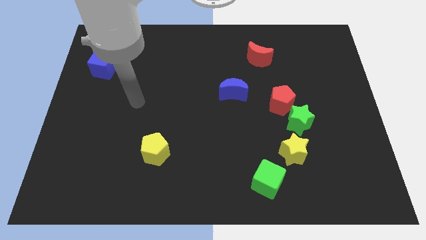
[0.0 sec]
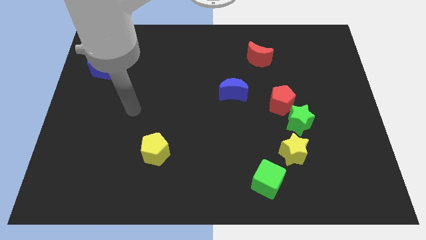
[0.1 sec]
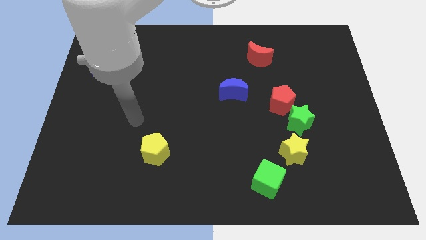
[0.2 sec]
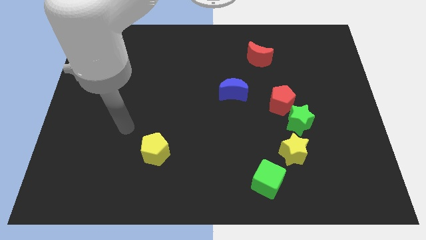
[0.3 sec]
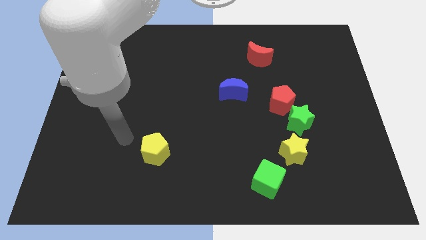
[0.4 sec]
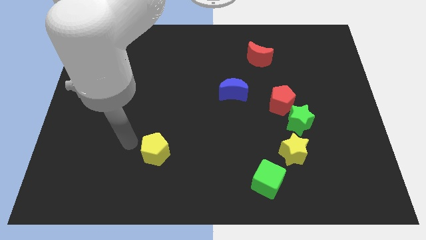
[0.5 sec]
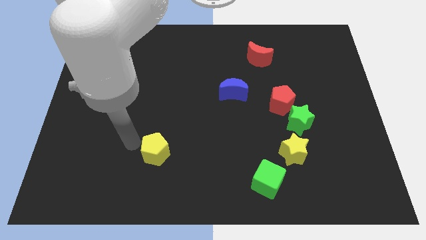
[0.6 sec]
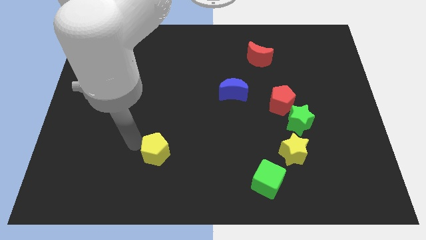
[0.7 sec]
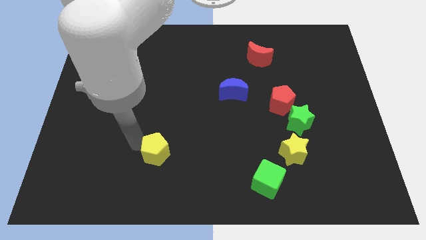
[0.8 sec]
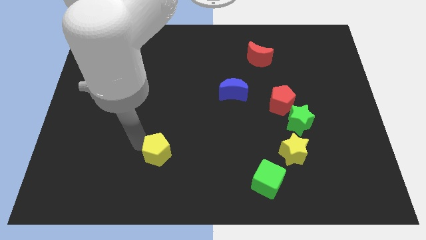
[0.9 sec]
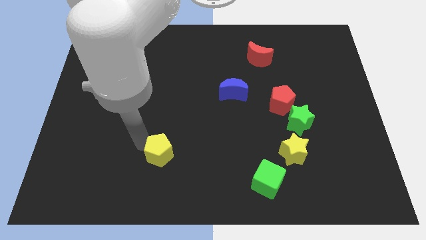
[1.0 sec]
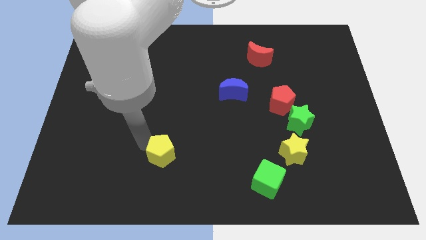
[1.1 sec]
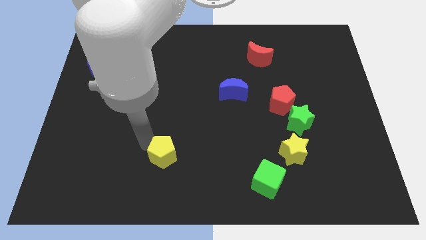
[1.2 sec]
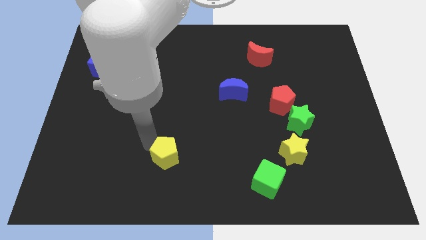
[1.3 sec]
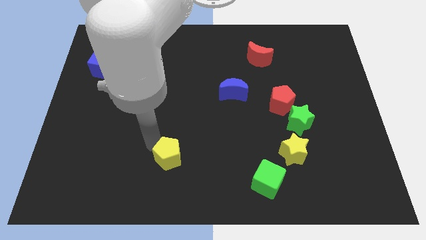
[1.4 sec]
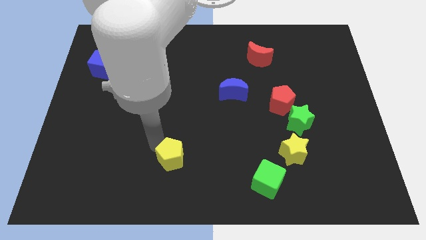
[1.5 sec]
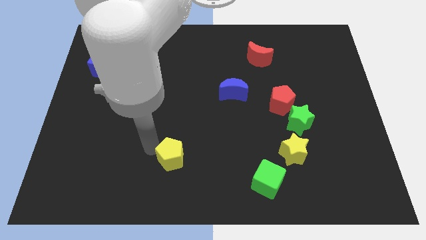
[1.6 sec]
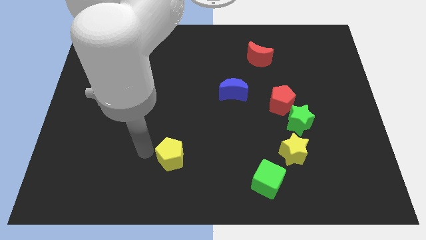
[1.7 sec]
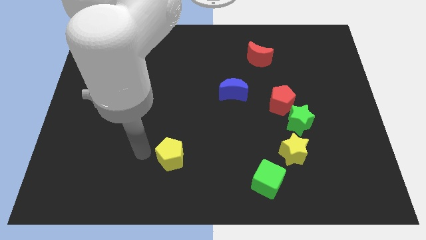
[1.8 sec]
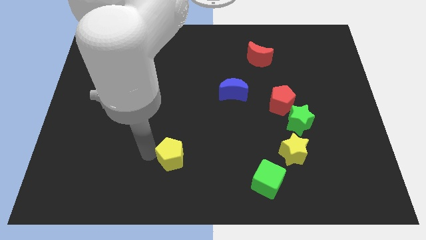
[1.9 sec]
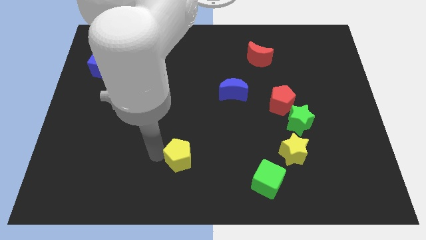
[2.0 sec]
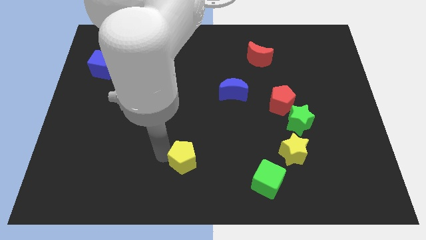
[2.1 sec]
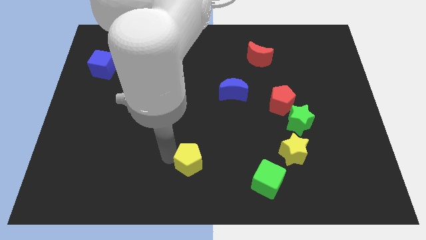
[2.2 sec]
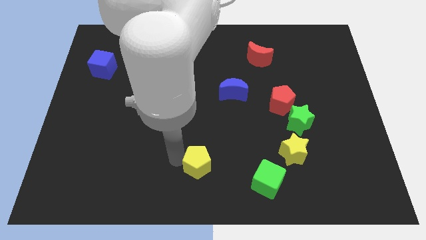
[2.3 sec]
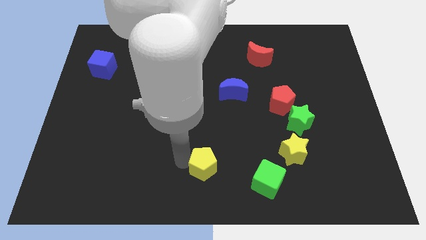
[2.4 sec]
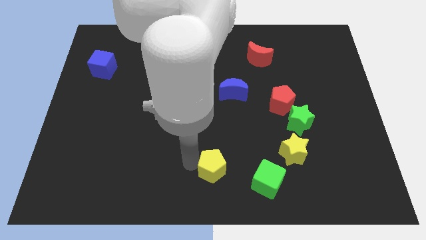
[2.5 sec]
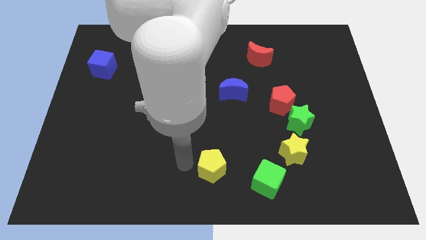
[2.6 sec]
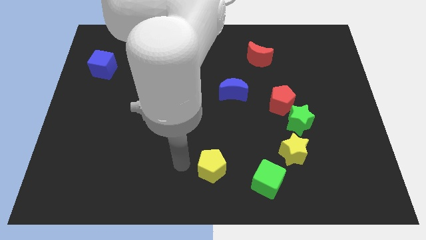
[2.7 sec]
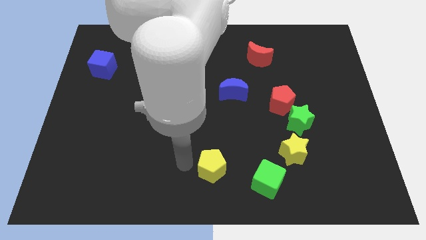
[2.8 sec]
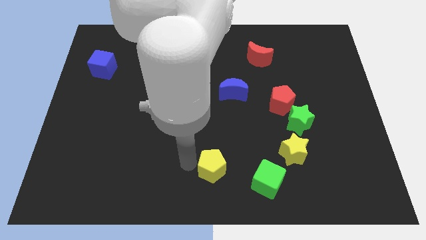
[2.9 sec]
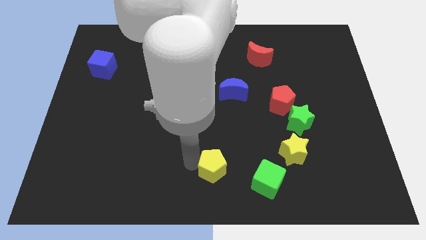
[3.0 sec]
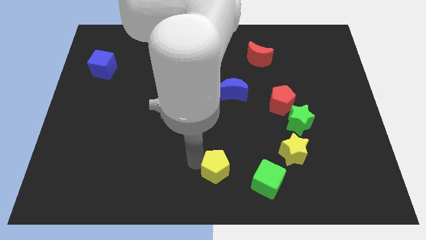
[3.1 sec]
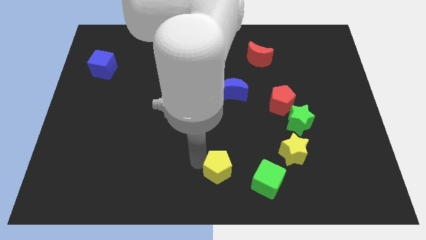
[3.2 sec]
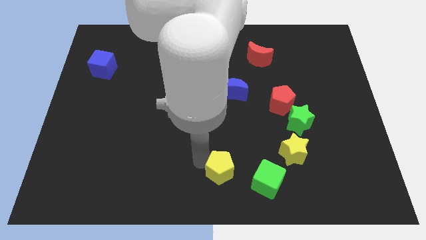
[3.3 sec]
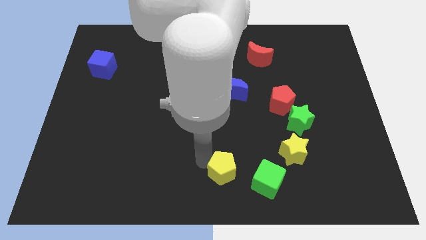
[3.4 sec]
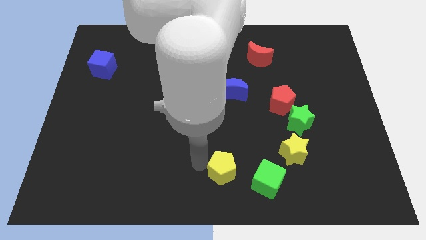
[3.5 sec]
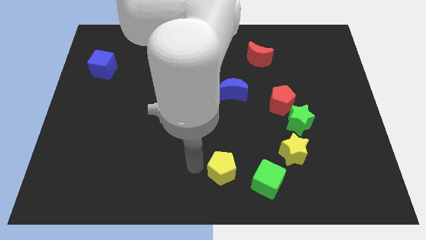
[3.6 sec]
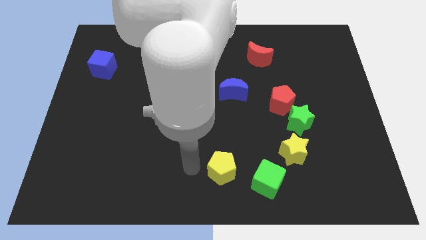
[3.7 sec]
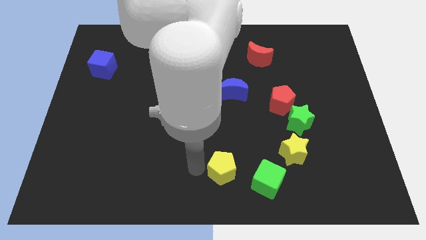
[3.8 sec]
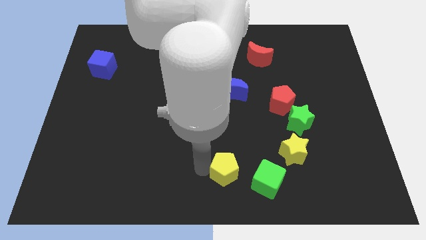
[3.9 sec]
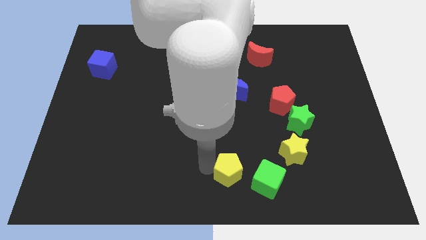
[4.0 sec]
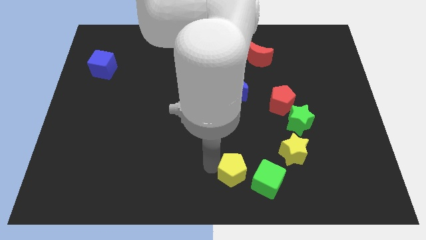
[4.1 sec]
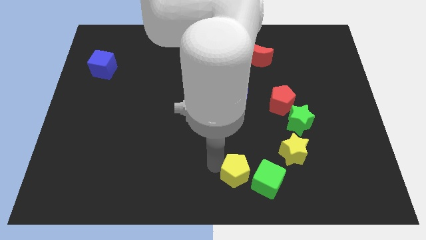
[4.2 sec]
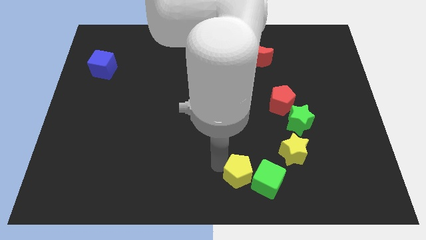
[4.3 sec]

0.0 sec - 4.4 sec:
move the yellow pentagon towards the green cube

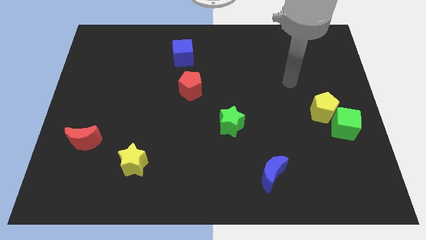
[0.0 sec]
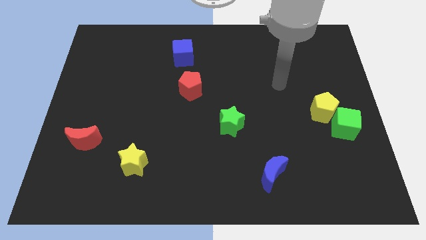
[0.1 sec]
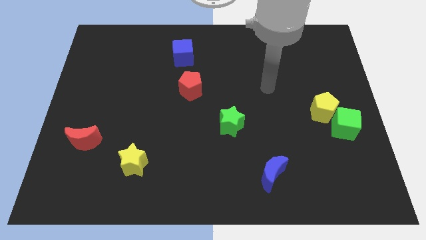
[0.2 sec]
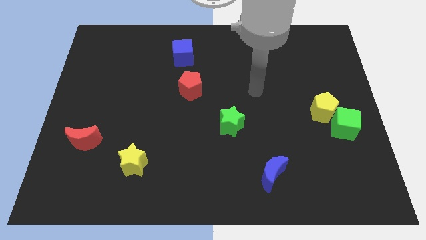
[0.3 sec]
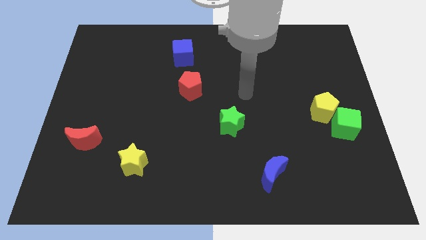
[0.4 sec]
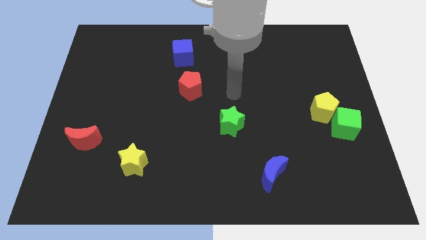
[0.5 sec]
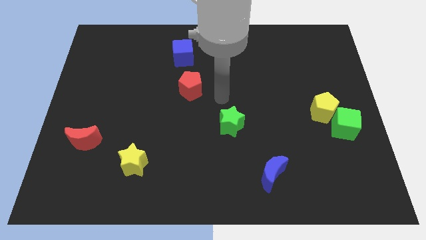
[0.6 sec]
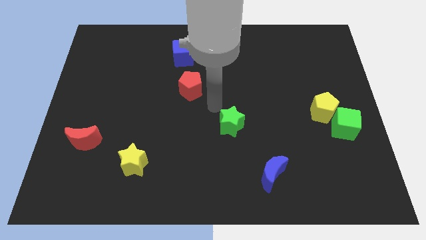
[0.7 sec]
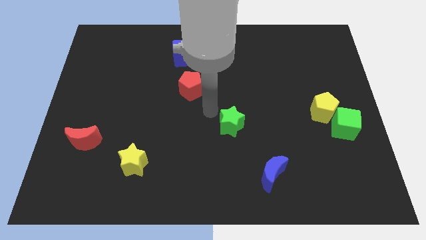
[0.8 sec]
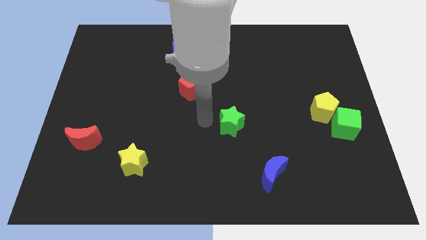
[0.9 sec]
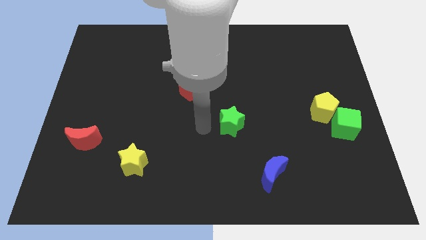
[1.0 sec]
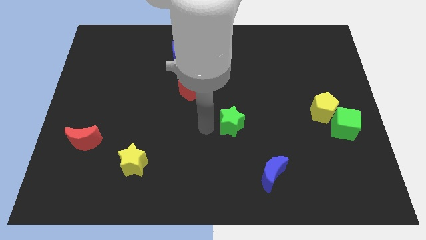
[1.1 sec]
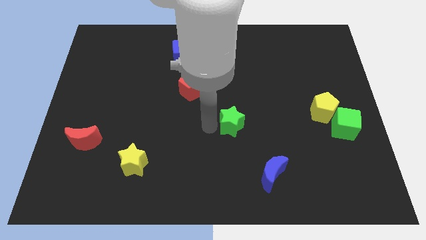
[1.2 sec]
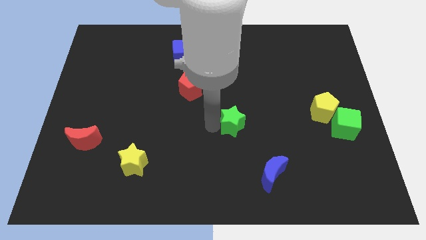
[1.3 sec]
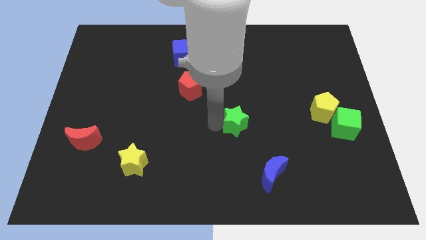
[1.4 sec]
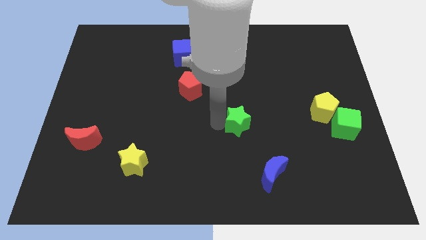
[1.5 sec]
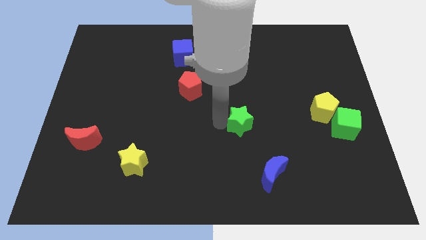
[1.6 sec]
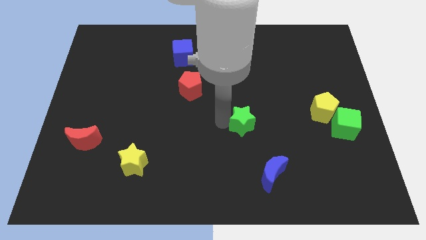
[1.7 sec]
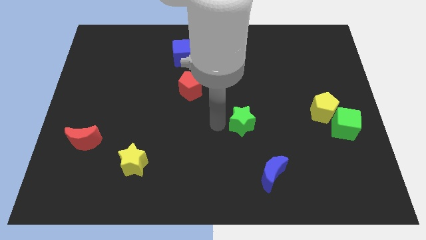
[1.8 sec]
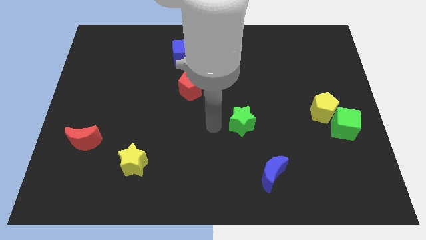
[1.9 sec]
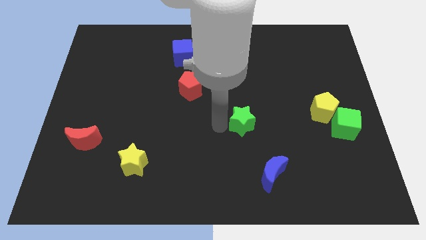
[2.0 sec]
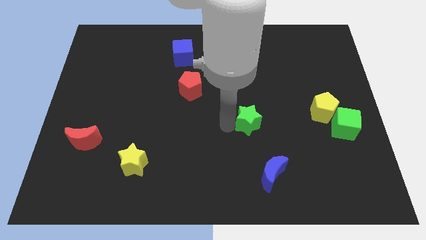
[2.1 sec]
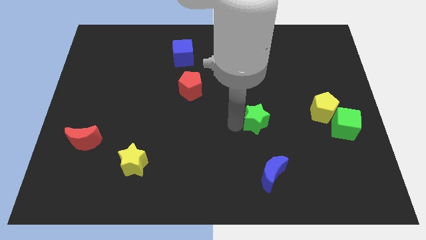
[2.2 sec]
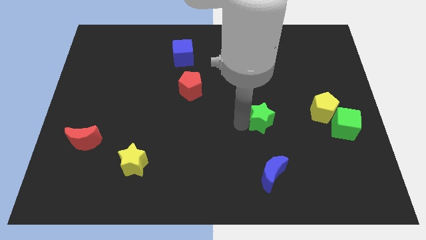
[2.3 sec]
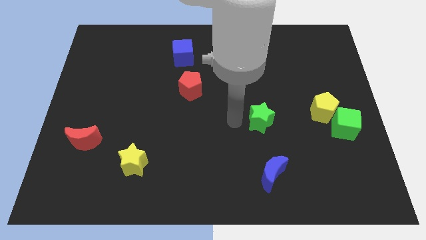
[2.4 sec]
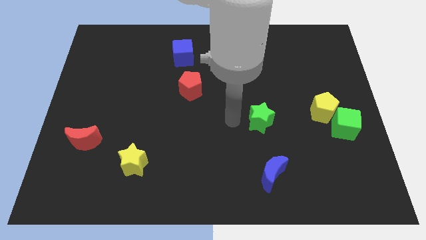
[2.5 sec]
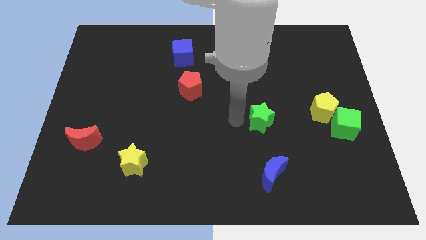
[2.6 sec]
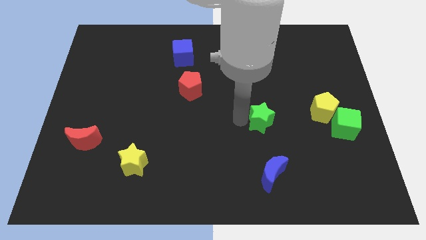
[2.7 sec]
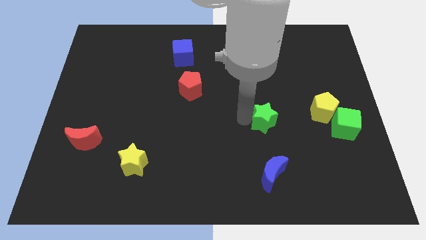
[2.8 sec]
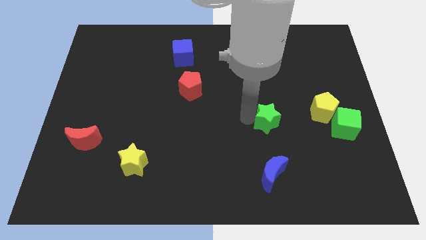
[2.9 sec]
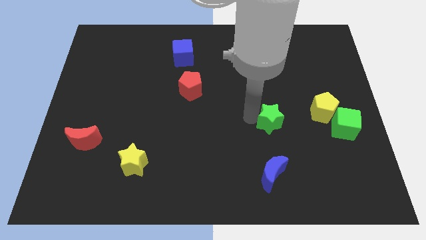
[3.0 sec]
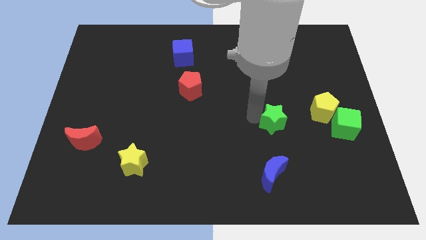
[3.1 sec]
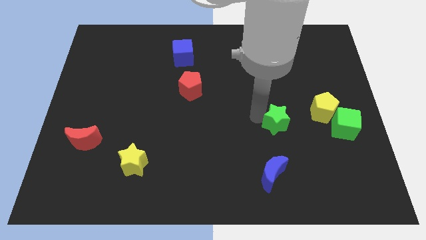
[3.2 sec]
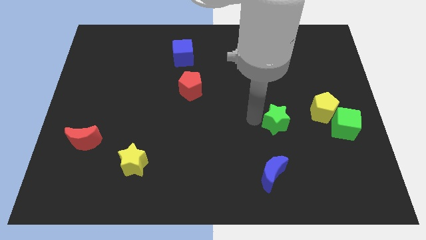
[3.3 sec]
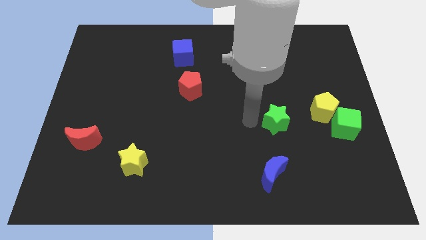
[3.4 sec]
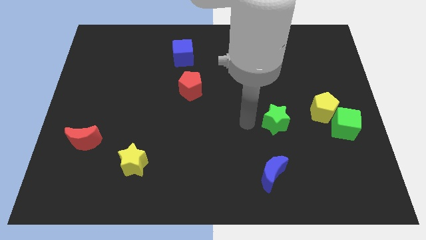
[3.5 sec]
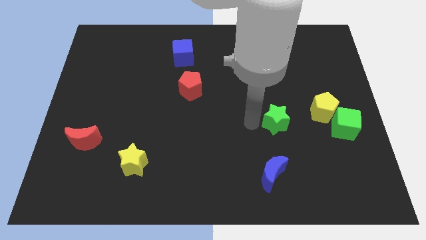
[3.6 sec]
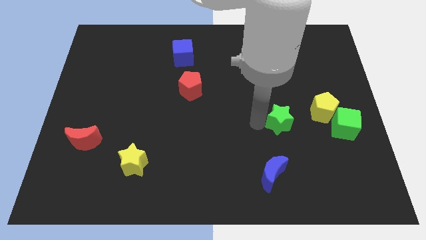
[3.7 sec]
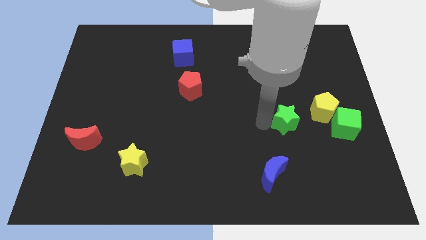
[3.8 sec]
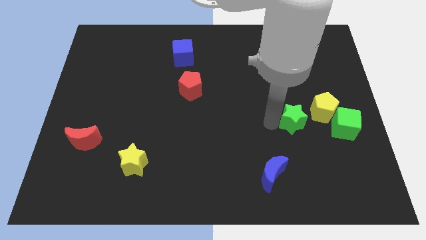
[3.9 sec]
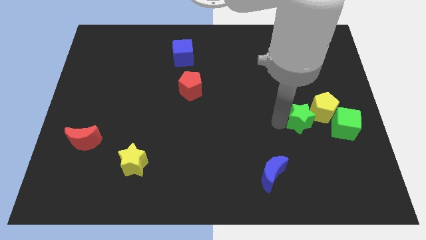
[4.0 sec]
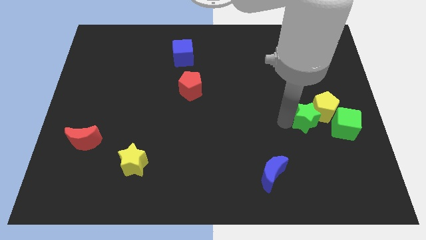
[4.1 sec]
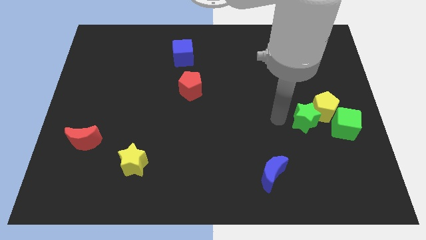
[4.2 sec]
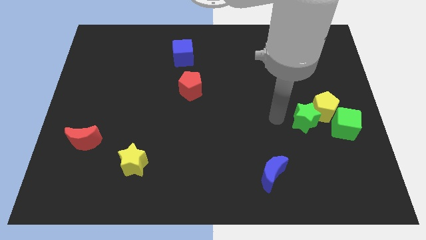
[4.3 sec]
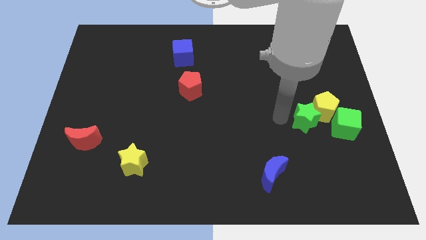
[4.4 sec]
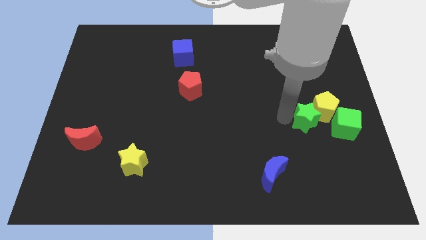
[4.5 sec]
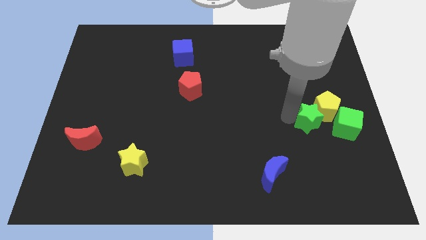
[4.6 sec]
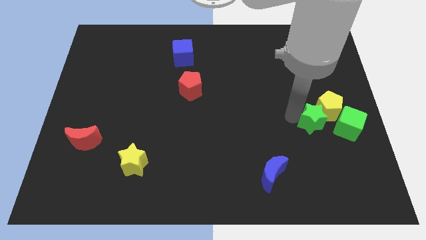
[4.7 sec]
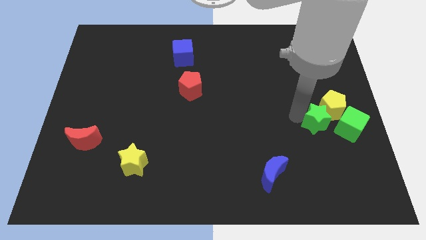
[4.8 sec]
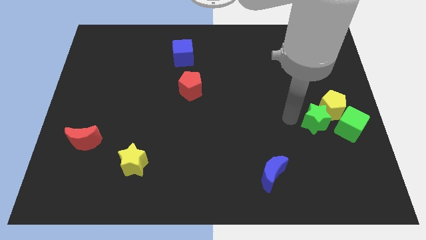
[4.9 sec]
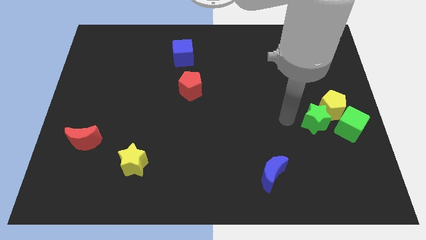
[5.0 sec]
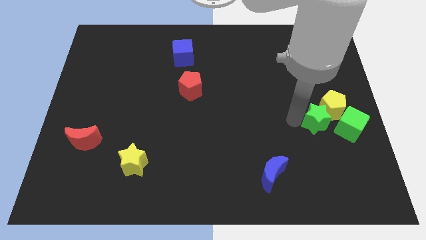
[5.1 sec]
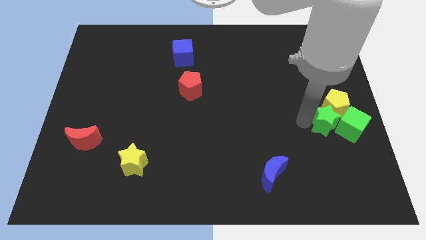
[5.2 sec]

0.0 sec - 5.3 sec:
slide the green star close to the green cube
